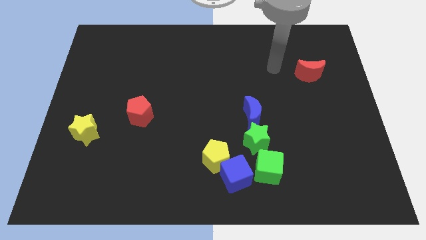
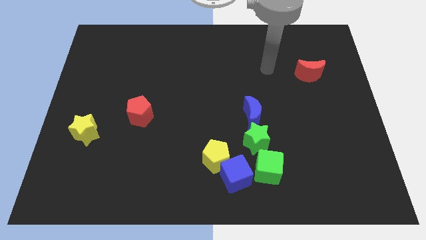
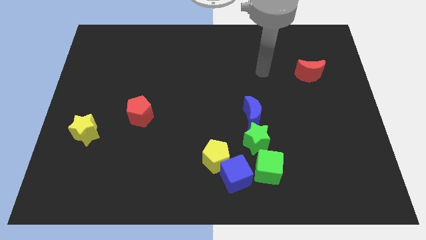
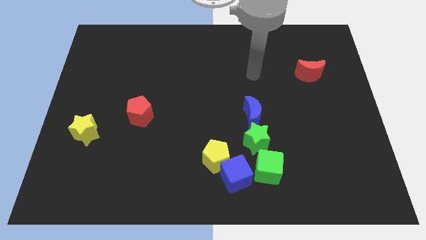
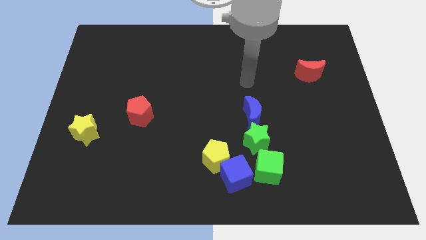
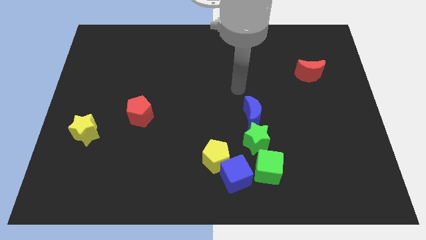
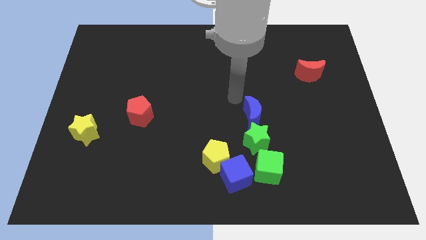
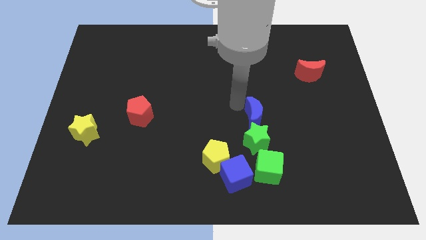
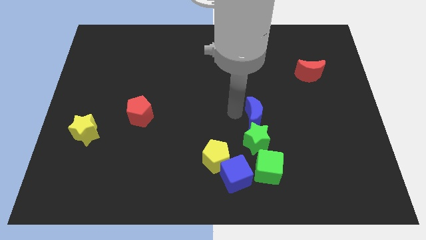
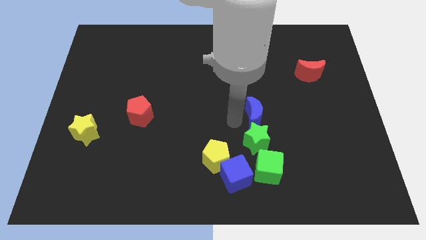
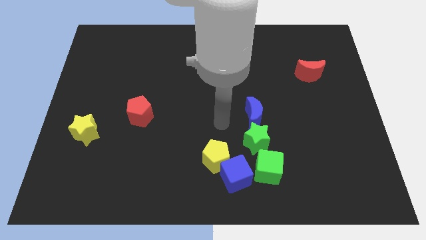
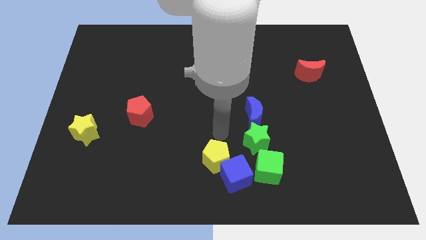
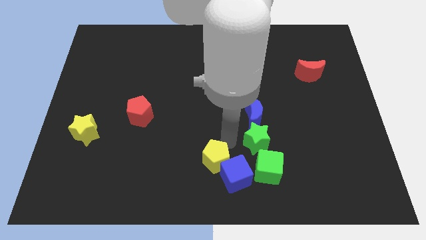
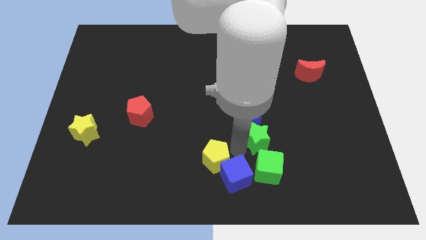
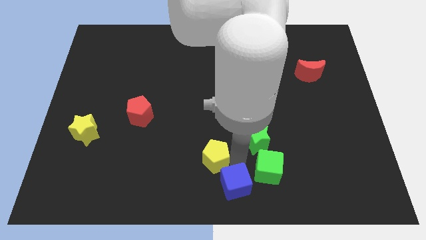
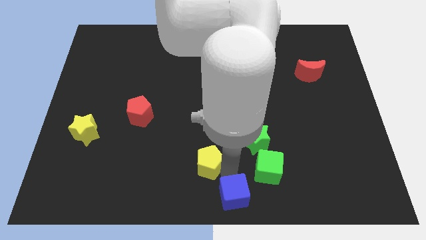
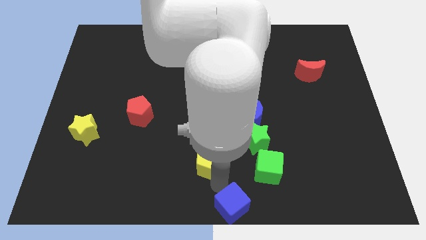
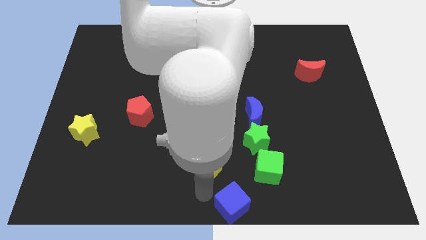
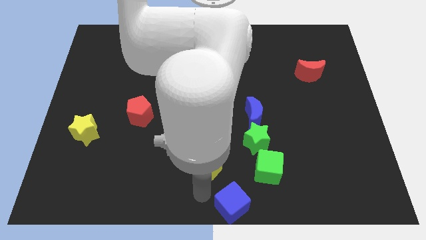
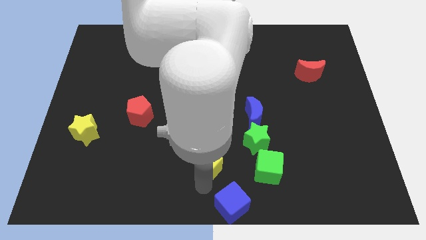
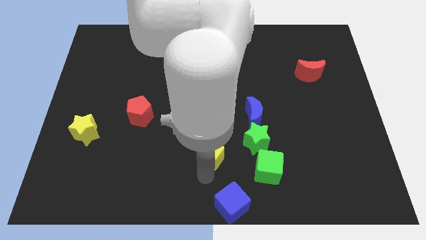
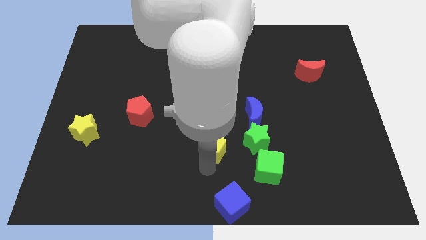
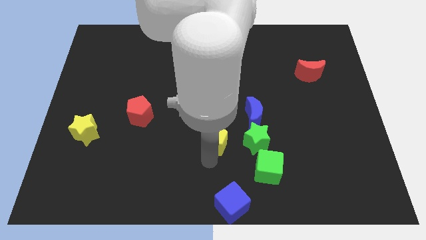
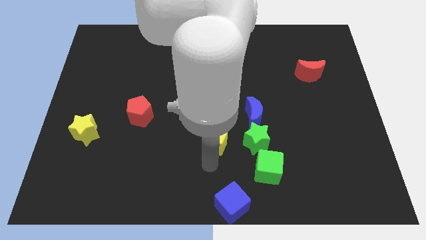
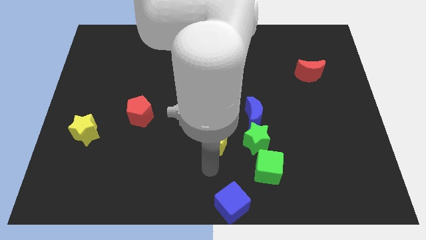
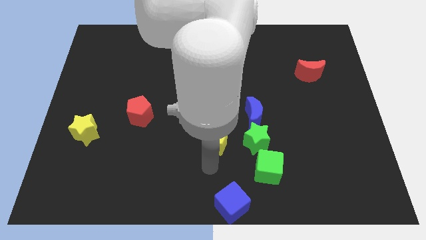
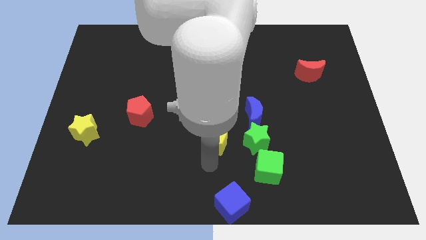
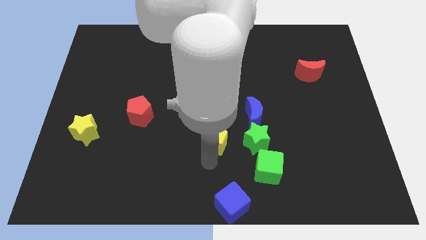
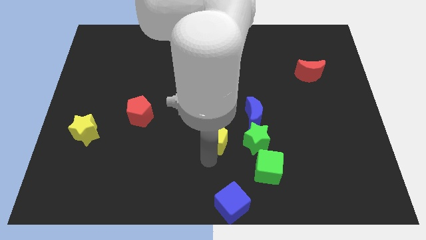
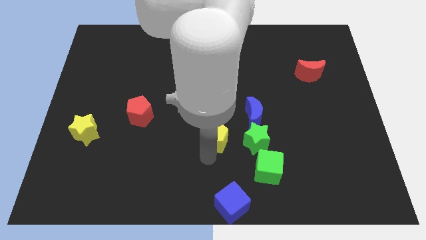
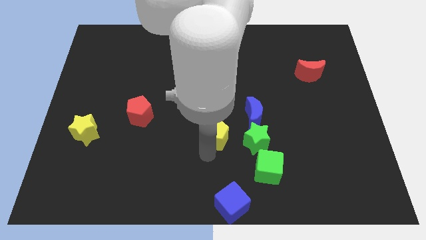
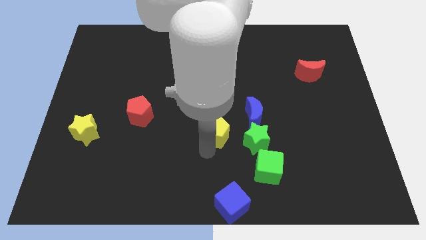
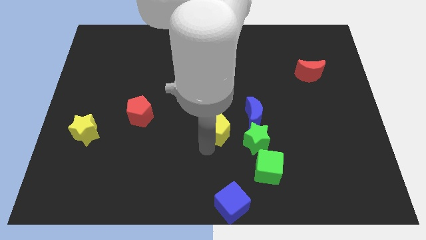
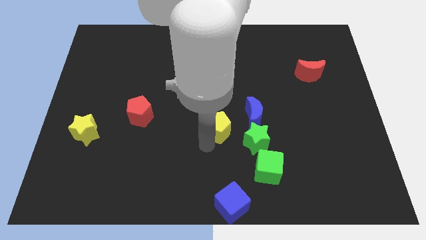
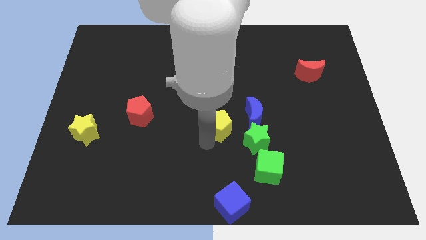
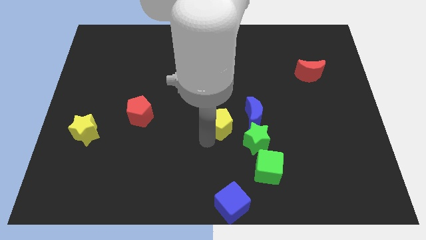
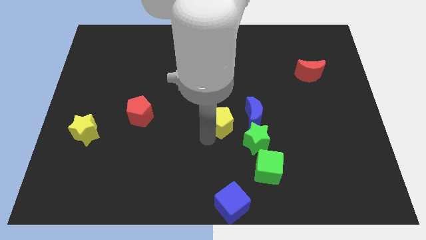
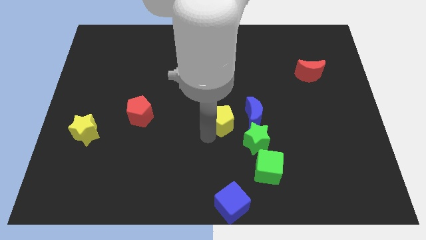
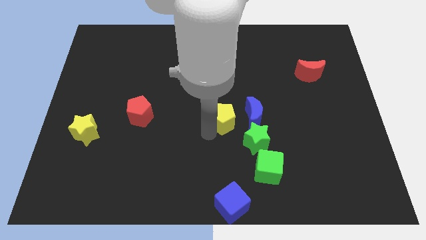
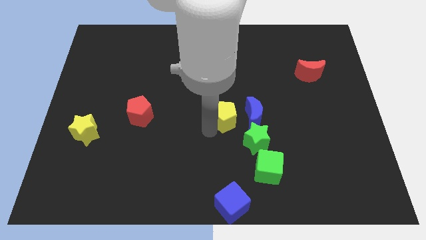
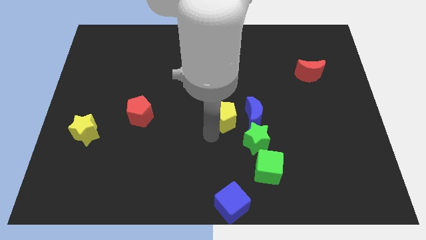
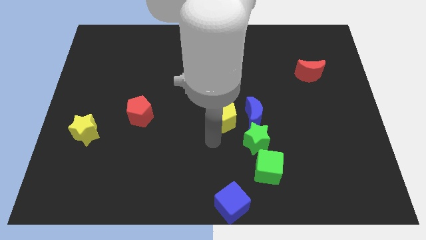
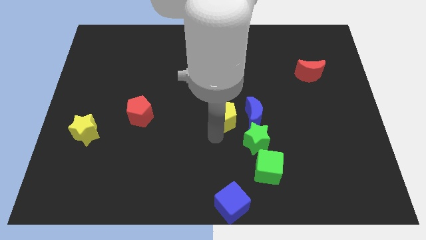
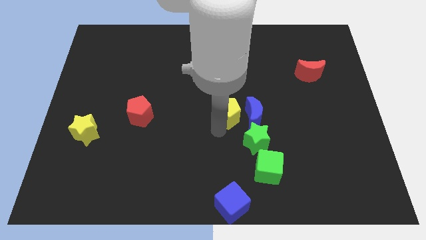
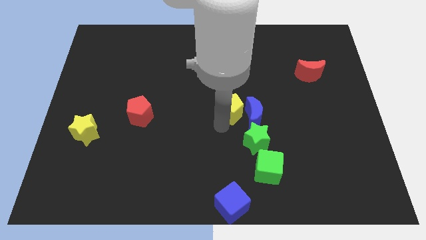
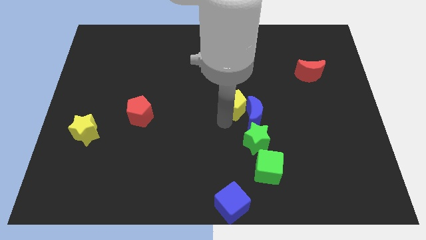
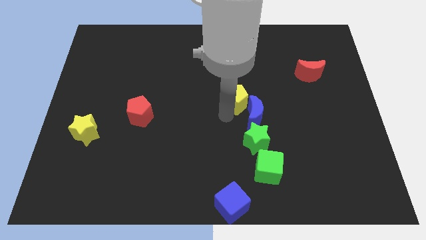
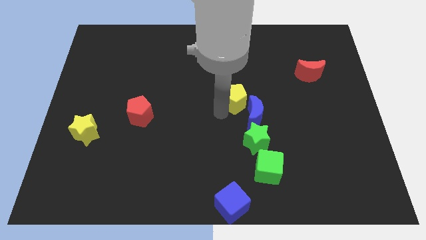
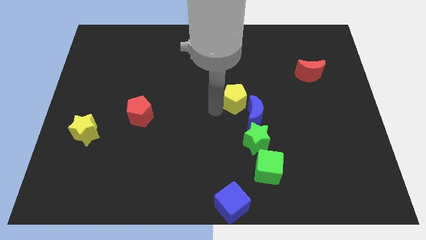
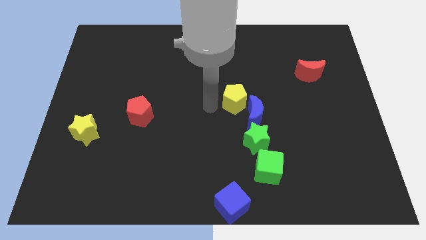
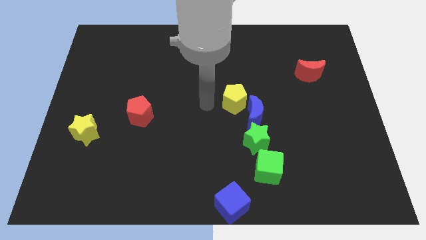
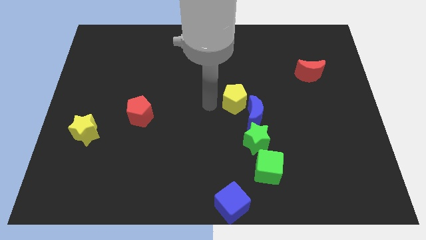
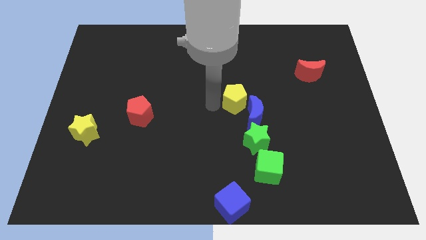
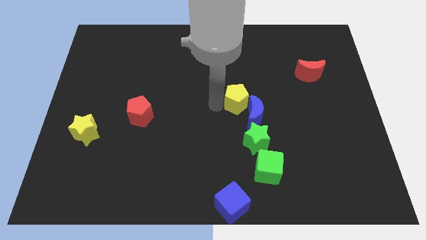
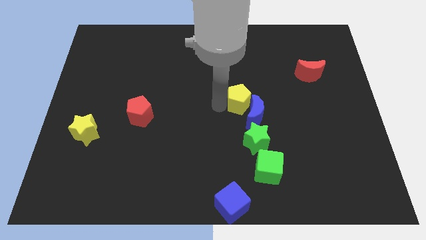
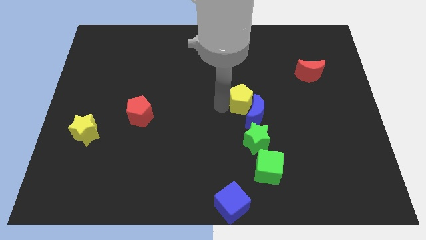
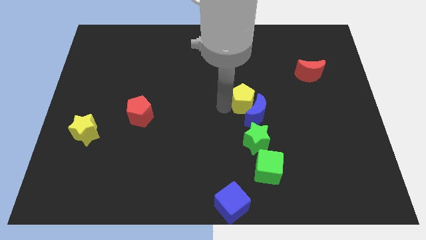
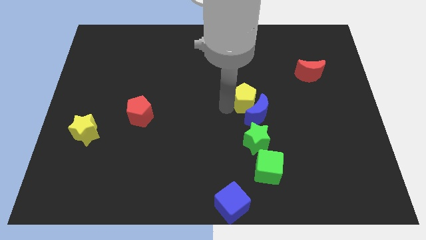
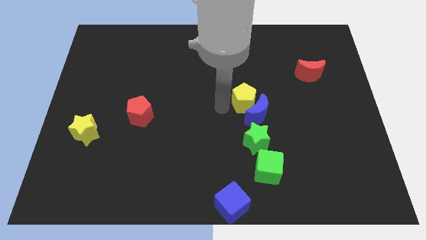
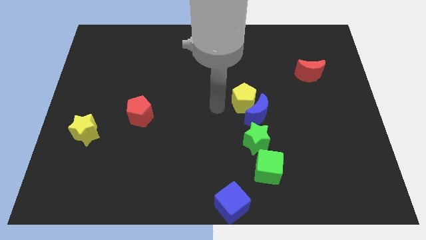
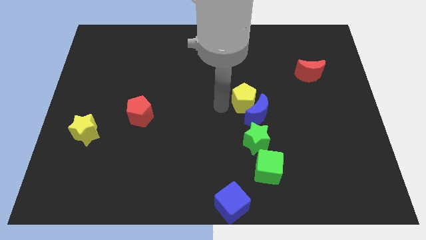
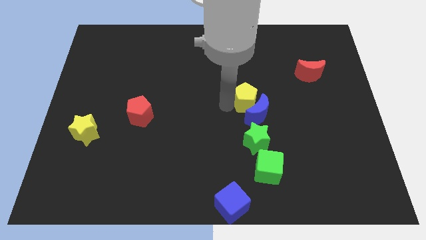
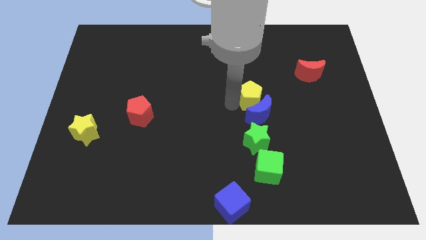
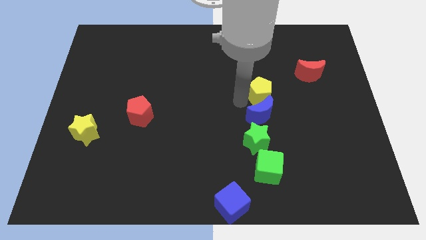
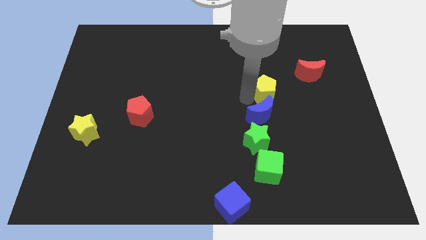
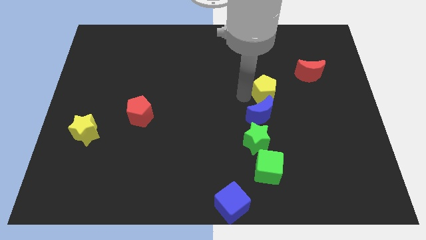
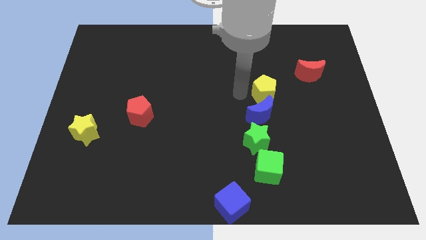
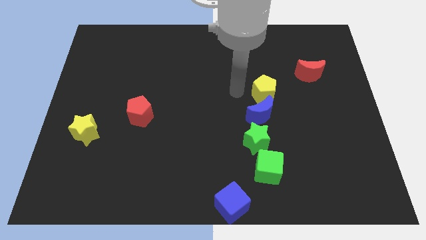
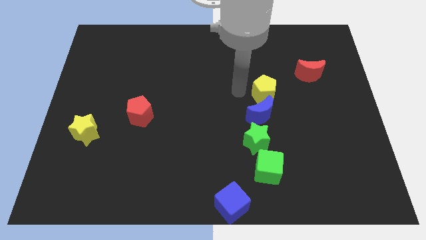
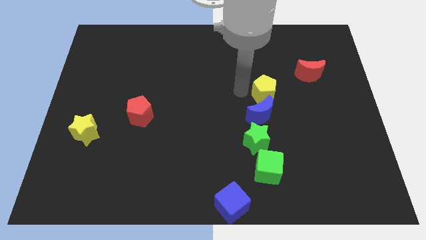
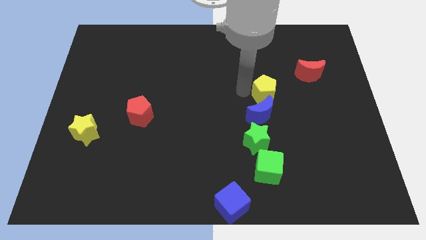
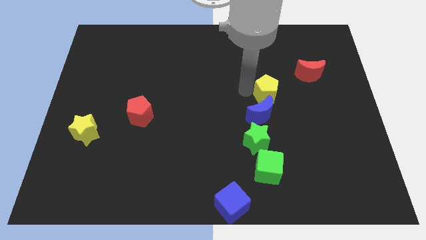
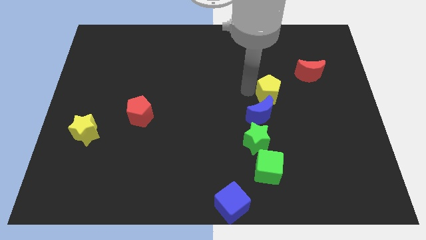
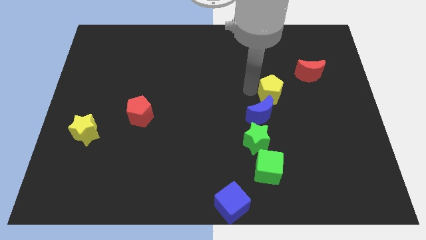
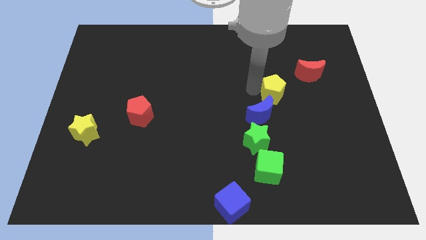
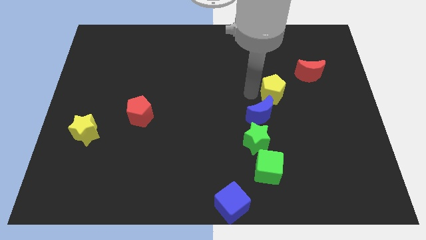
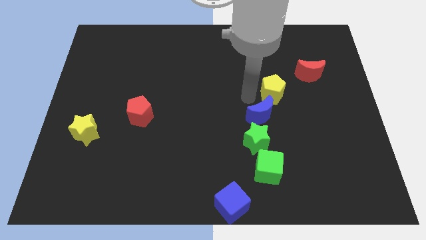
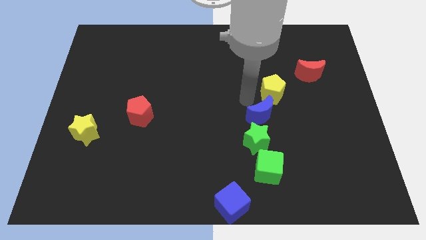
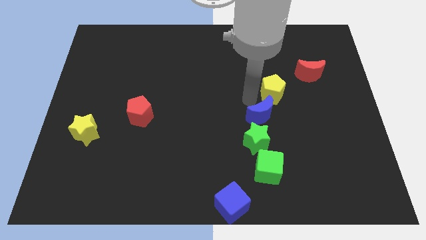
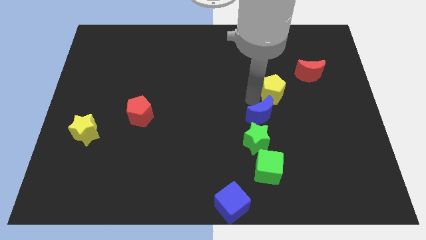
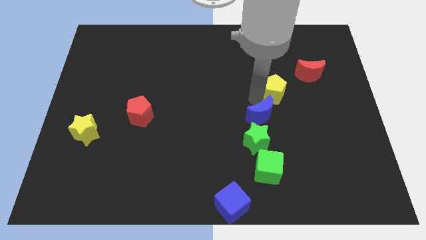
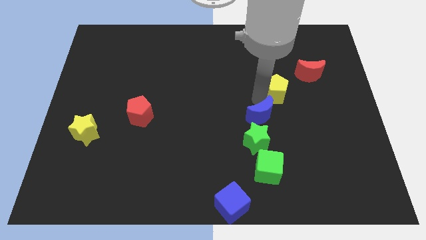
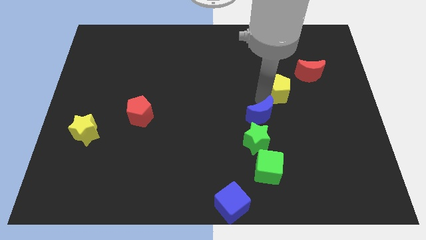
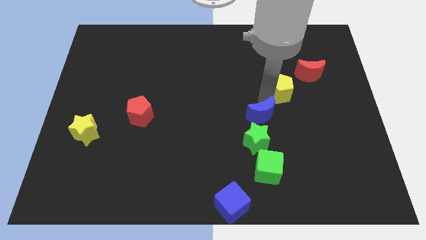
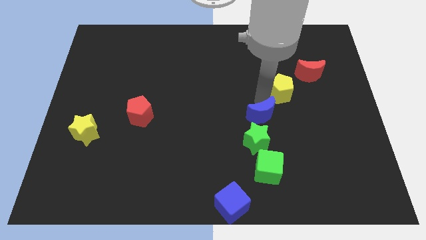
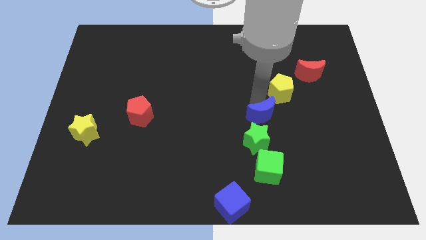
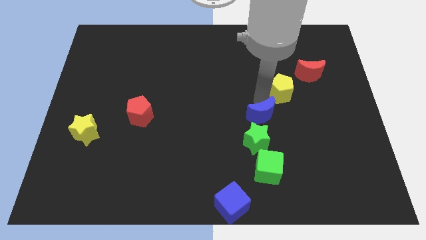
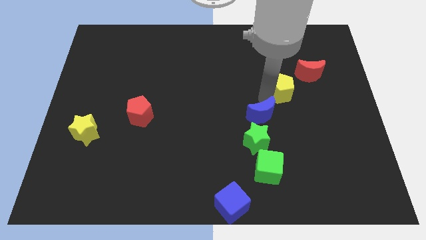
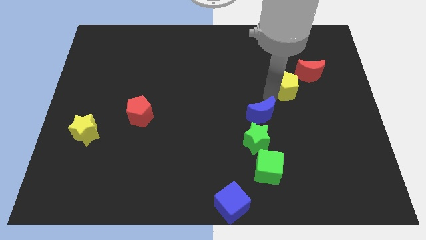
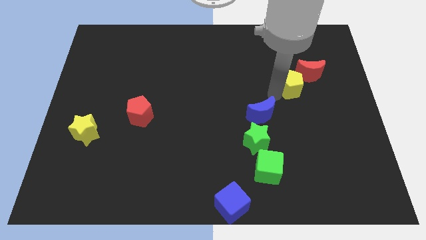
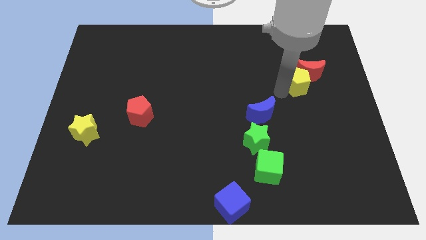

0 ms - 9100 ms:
put the yellow pentagon to the red moon
